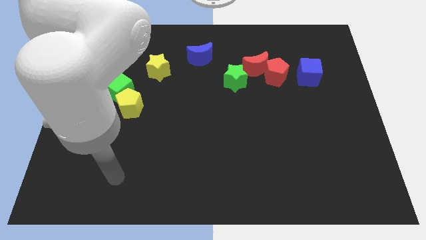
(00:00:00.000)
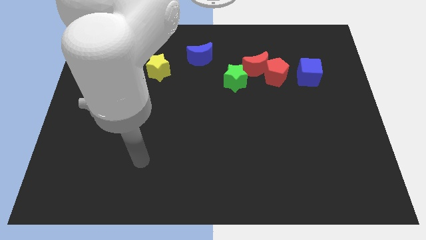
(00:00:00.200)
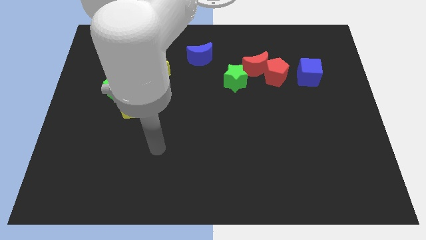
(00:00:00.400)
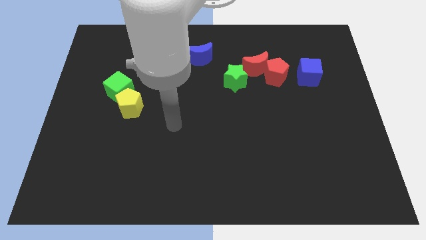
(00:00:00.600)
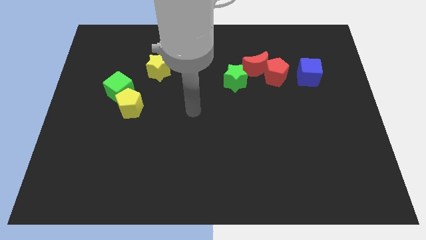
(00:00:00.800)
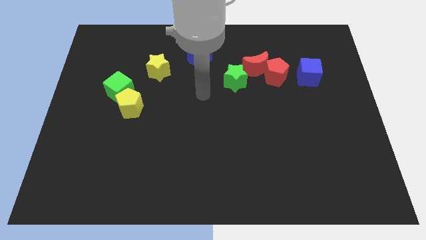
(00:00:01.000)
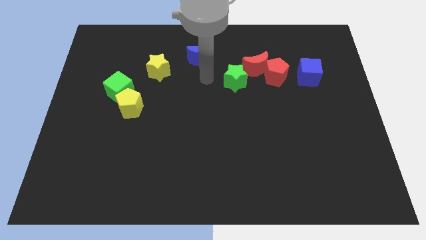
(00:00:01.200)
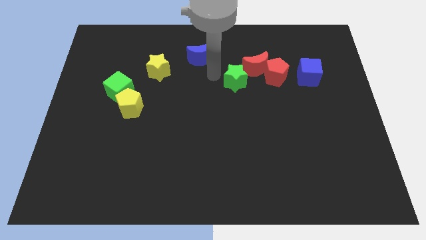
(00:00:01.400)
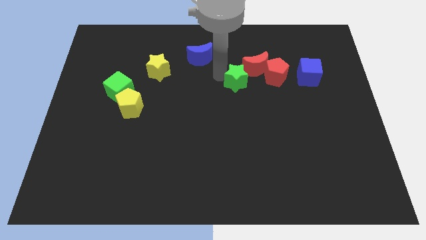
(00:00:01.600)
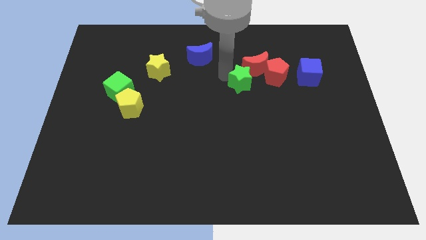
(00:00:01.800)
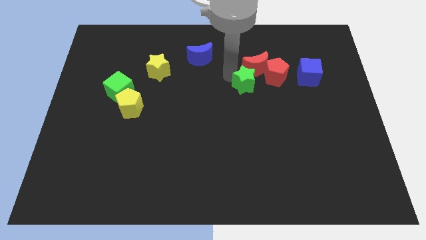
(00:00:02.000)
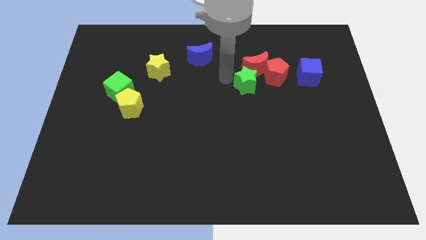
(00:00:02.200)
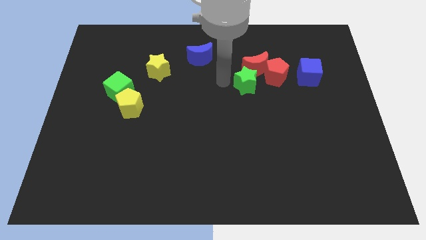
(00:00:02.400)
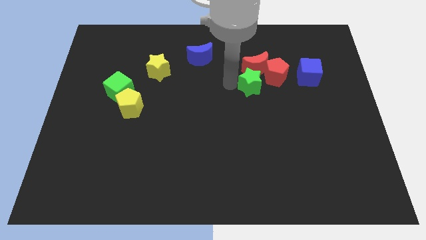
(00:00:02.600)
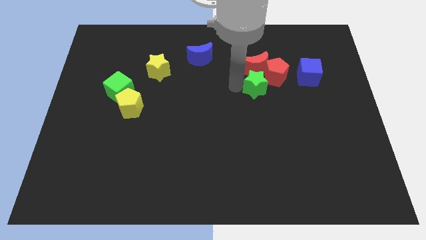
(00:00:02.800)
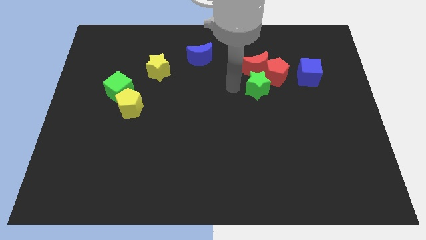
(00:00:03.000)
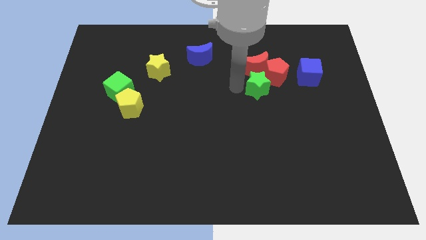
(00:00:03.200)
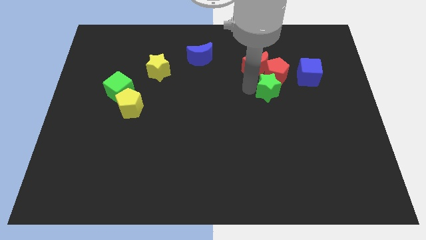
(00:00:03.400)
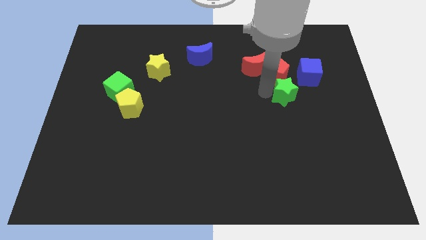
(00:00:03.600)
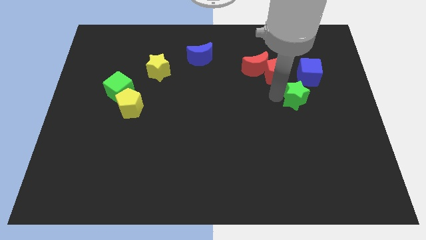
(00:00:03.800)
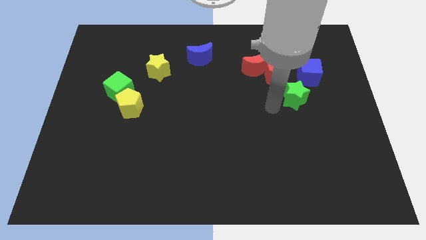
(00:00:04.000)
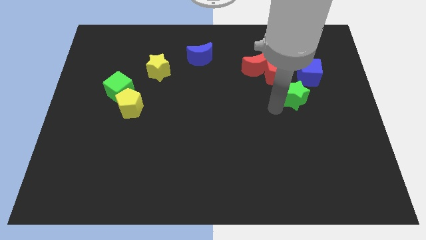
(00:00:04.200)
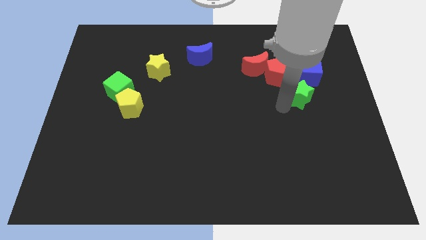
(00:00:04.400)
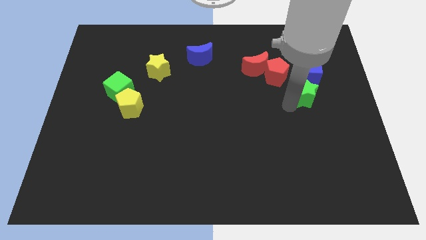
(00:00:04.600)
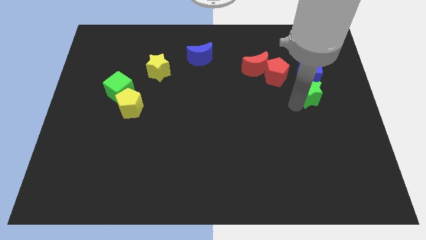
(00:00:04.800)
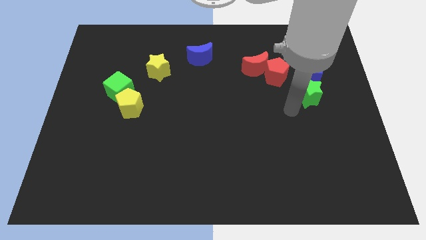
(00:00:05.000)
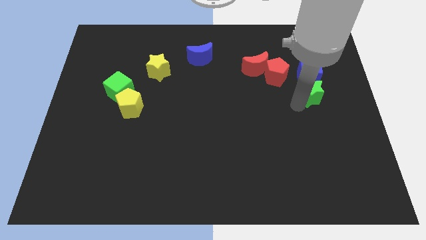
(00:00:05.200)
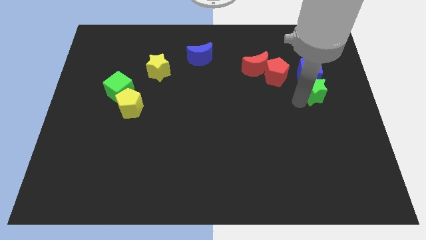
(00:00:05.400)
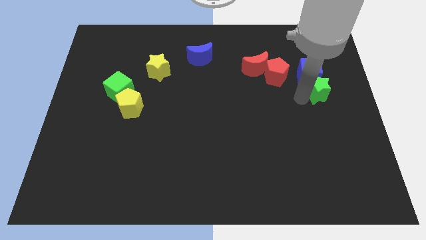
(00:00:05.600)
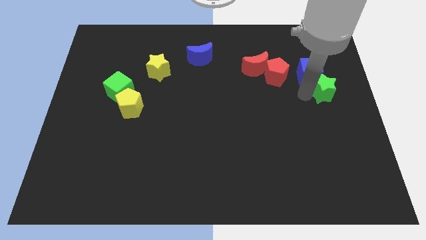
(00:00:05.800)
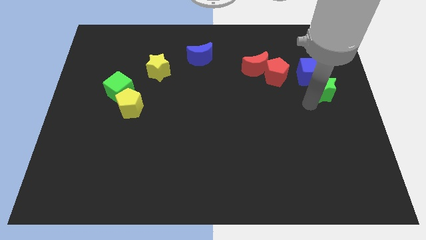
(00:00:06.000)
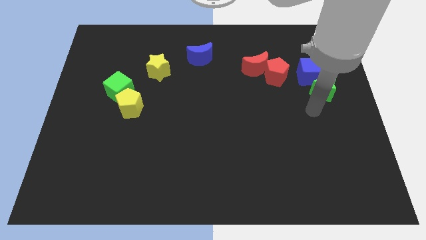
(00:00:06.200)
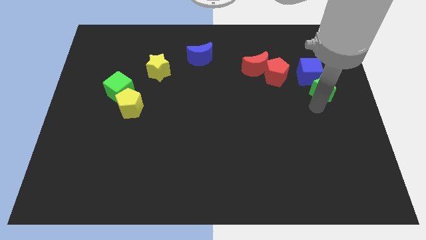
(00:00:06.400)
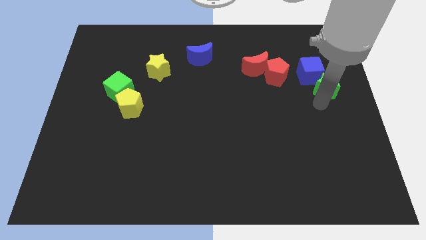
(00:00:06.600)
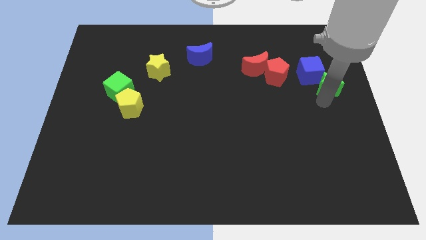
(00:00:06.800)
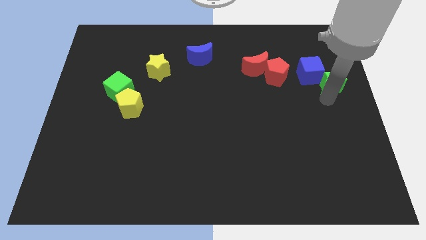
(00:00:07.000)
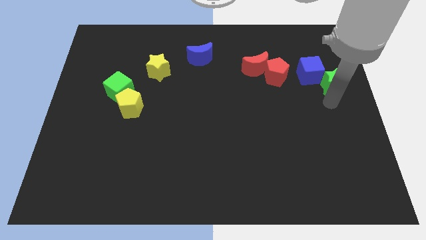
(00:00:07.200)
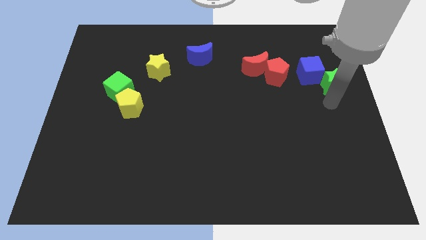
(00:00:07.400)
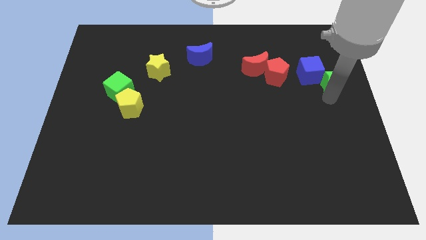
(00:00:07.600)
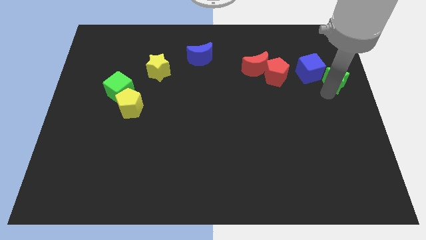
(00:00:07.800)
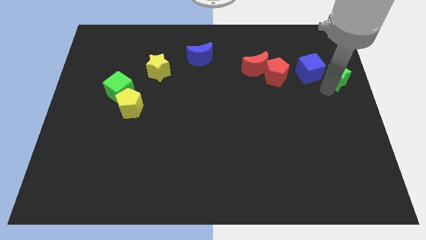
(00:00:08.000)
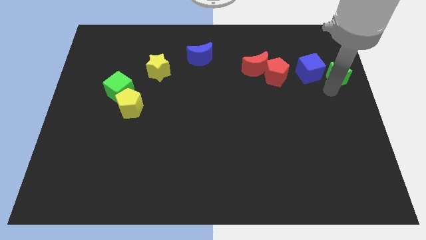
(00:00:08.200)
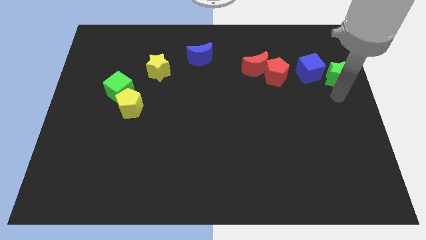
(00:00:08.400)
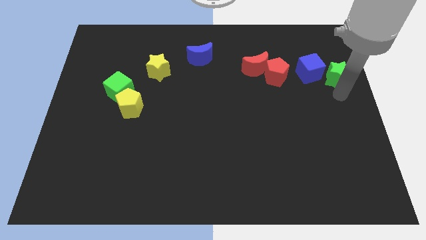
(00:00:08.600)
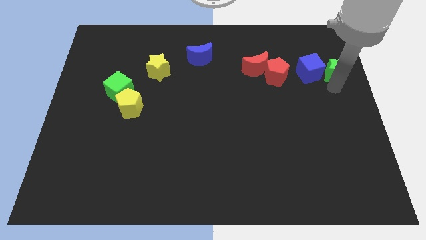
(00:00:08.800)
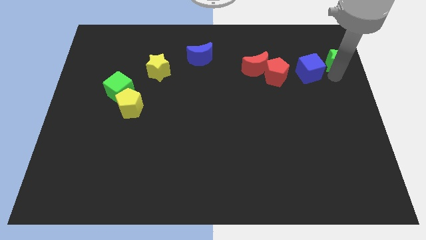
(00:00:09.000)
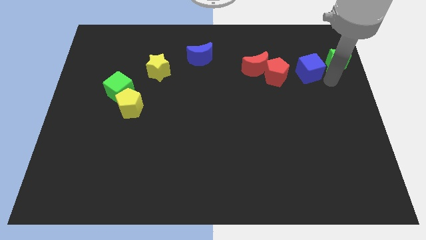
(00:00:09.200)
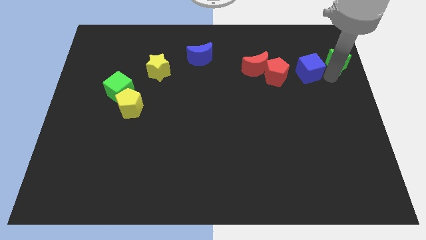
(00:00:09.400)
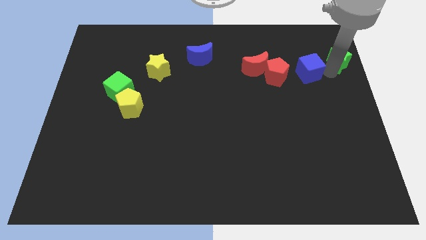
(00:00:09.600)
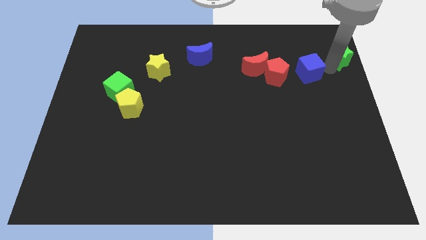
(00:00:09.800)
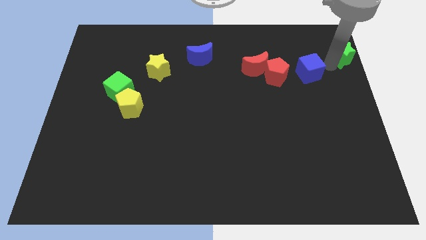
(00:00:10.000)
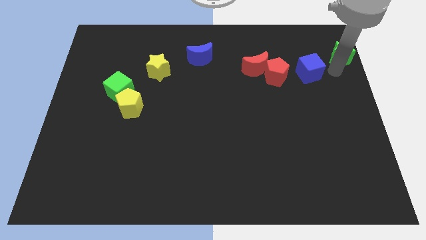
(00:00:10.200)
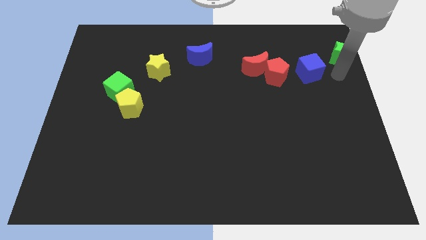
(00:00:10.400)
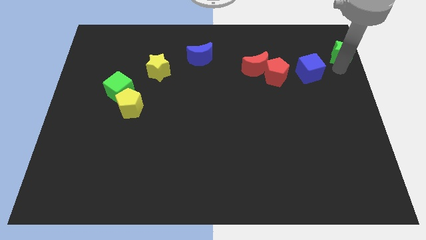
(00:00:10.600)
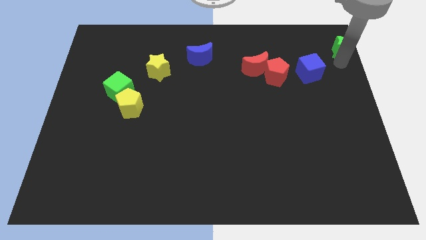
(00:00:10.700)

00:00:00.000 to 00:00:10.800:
put the green star to the top right of the board

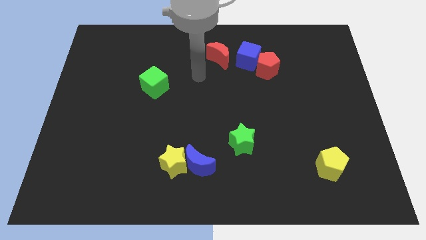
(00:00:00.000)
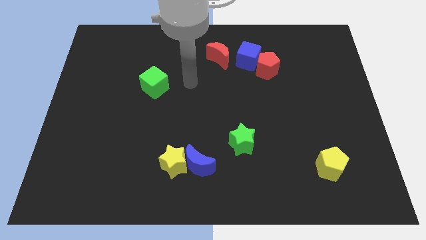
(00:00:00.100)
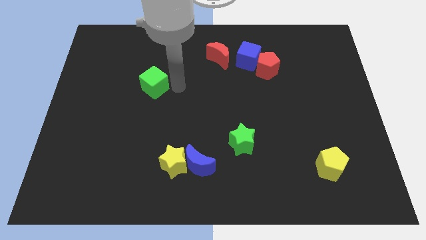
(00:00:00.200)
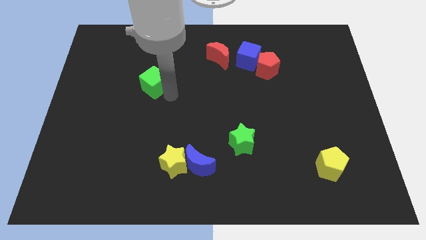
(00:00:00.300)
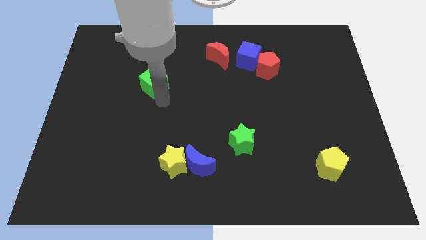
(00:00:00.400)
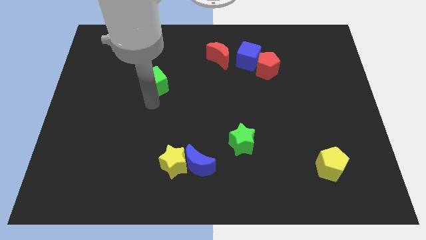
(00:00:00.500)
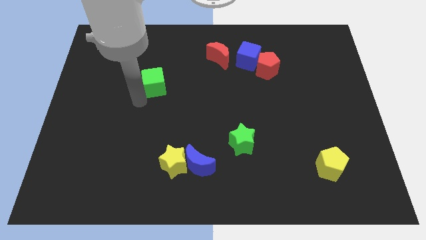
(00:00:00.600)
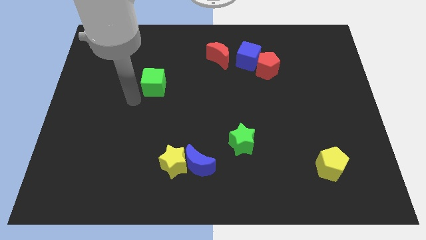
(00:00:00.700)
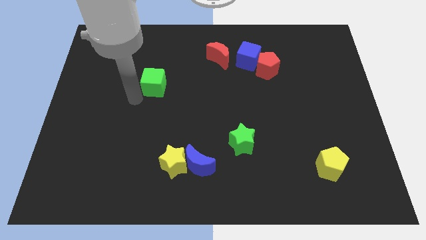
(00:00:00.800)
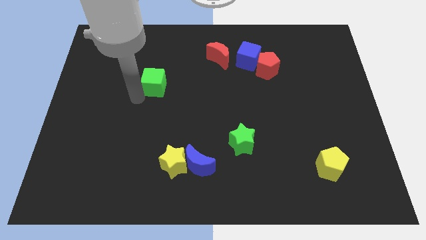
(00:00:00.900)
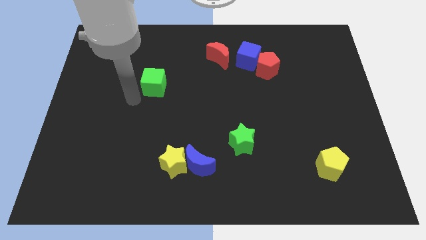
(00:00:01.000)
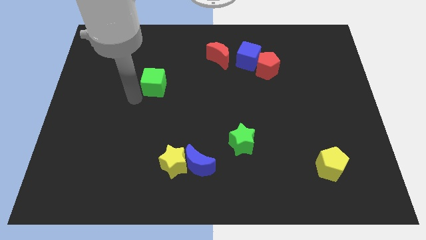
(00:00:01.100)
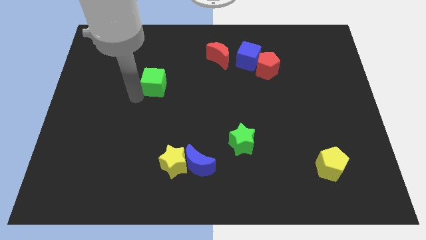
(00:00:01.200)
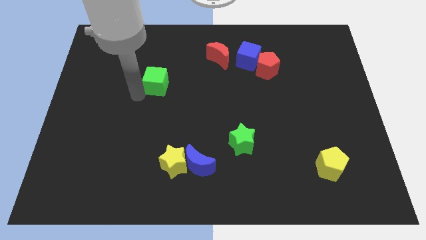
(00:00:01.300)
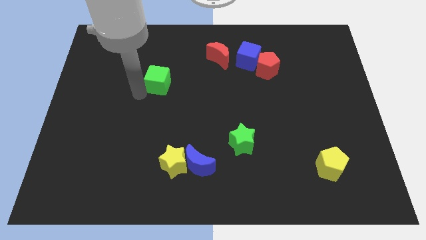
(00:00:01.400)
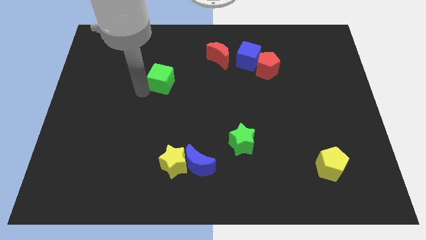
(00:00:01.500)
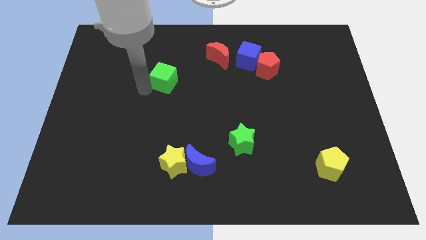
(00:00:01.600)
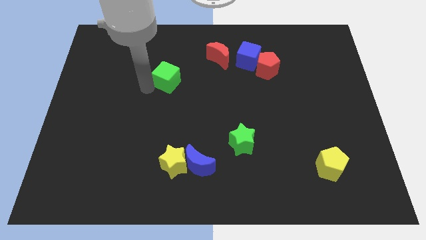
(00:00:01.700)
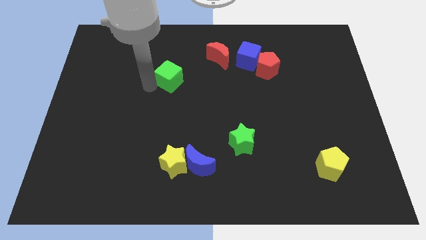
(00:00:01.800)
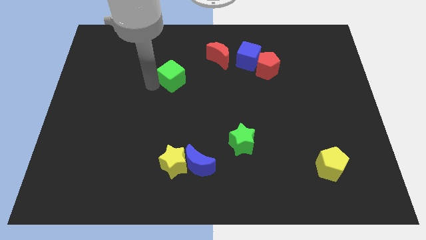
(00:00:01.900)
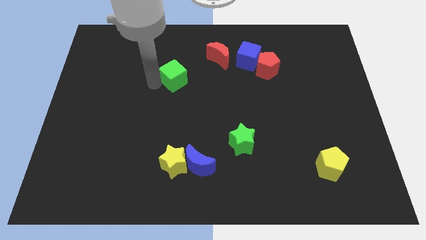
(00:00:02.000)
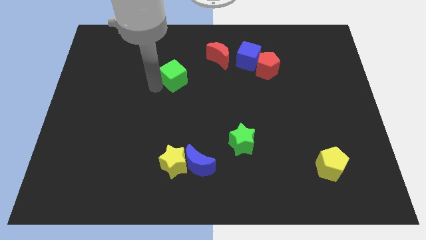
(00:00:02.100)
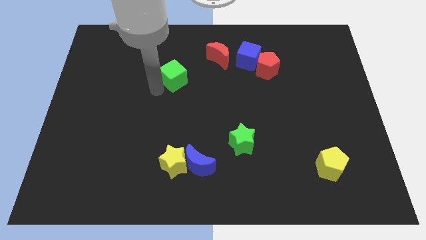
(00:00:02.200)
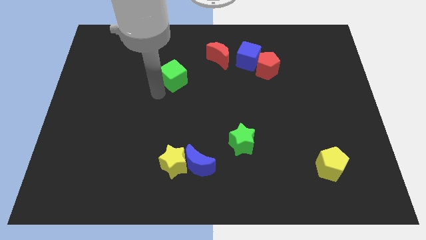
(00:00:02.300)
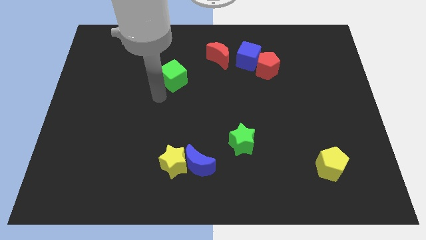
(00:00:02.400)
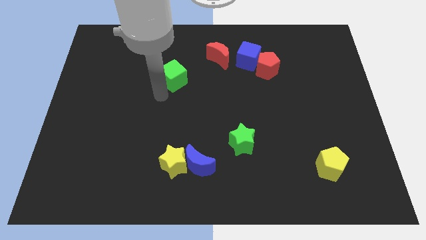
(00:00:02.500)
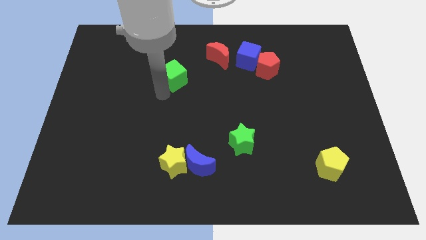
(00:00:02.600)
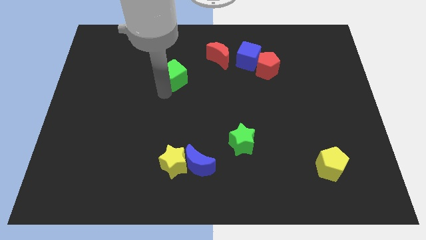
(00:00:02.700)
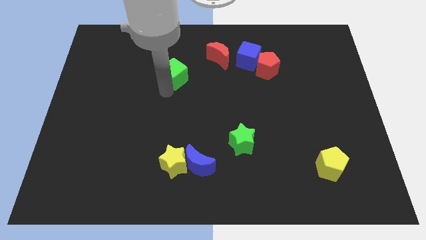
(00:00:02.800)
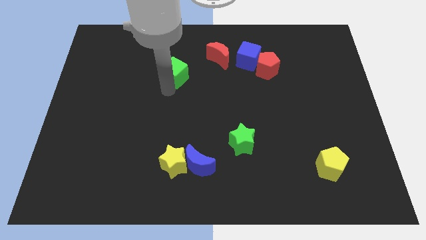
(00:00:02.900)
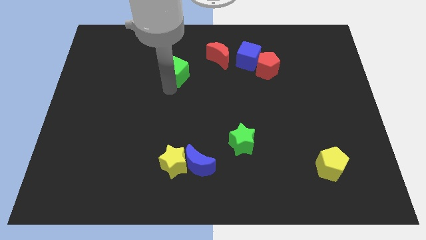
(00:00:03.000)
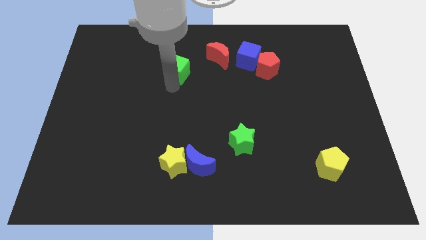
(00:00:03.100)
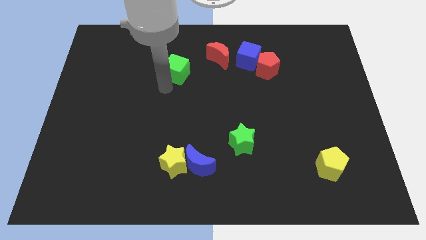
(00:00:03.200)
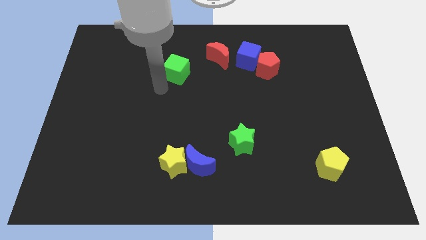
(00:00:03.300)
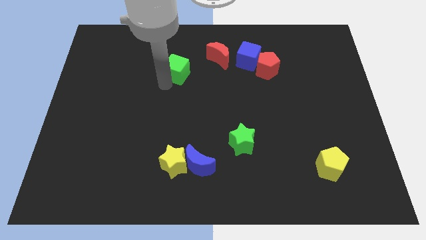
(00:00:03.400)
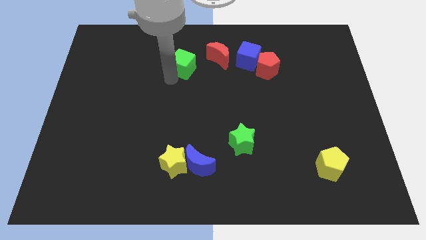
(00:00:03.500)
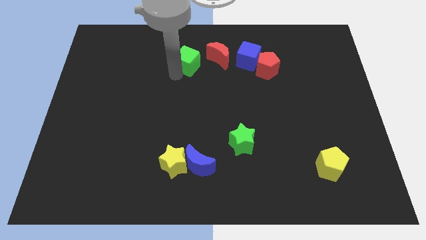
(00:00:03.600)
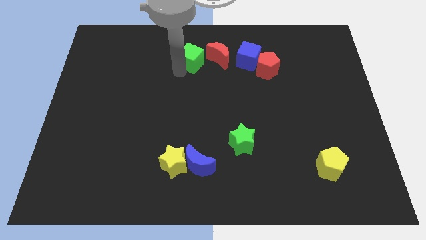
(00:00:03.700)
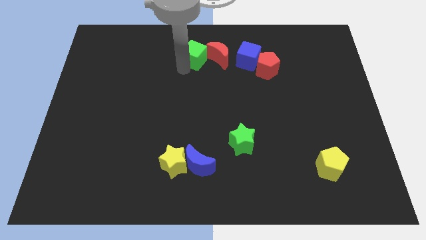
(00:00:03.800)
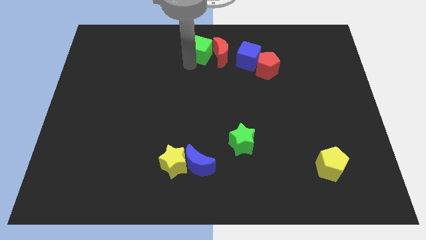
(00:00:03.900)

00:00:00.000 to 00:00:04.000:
move the green cube to the top
